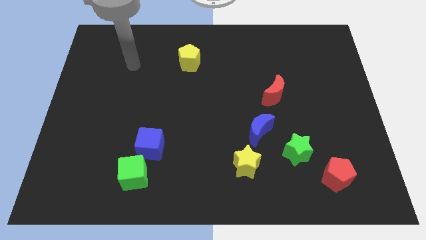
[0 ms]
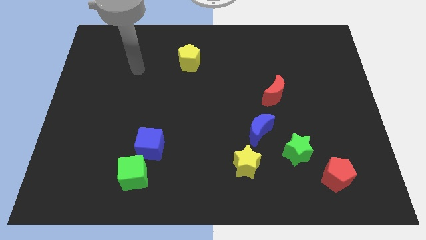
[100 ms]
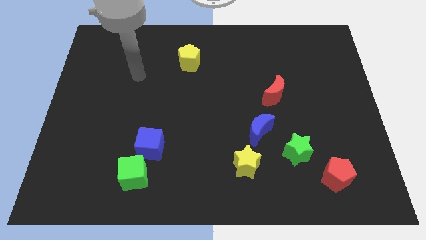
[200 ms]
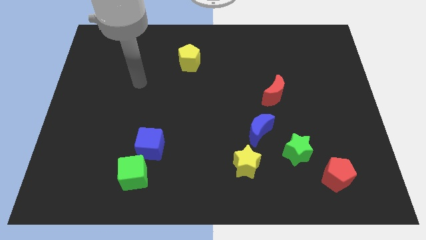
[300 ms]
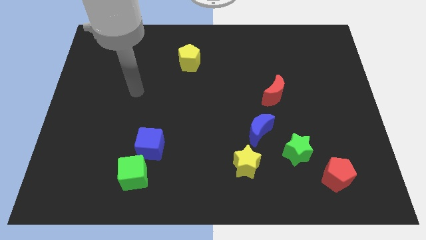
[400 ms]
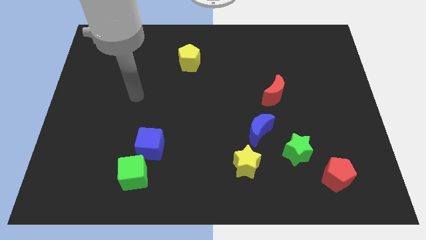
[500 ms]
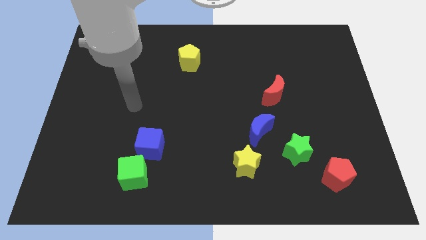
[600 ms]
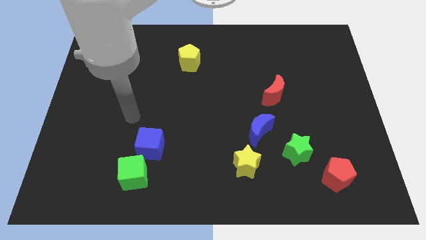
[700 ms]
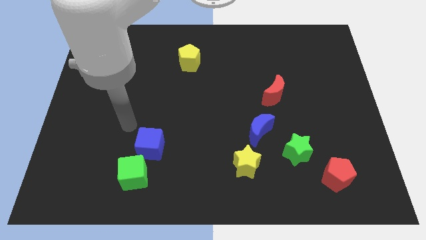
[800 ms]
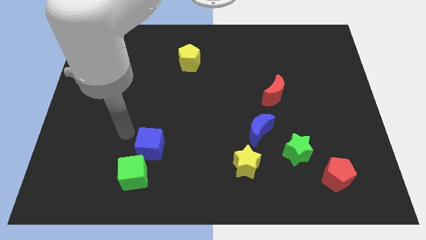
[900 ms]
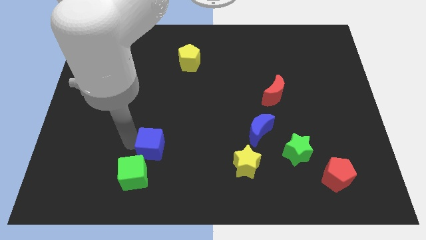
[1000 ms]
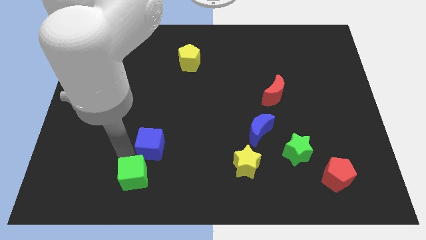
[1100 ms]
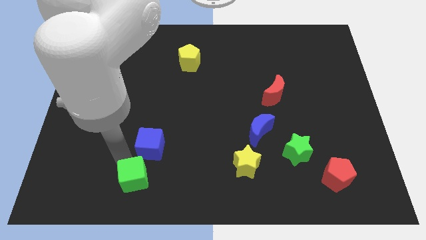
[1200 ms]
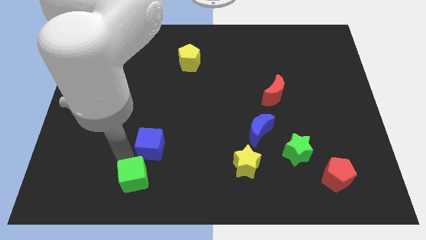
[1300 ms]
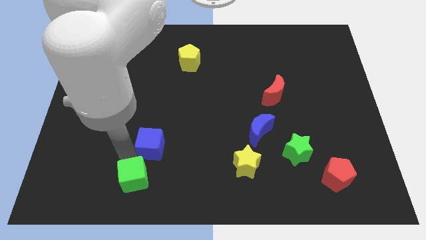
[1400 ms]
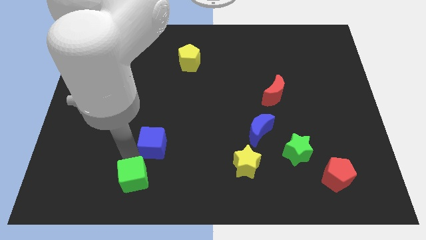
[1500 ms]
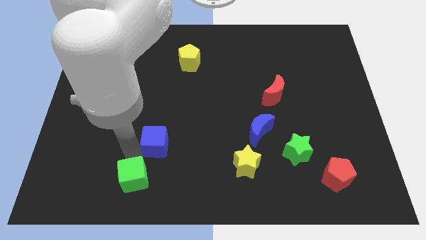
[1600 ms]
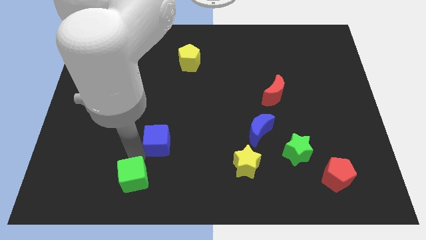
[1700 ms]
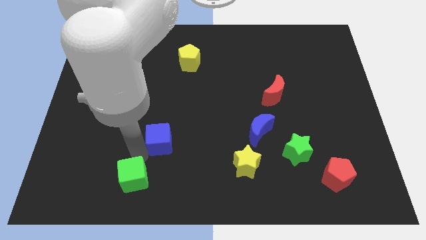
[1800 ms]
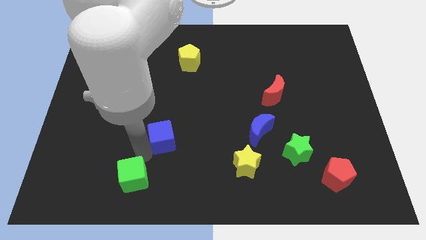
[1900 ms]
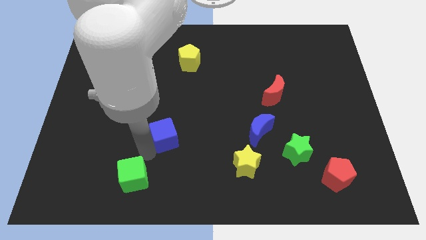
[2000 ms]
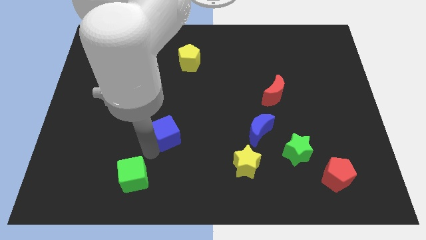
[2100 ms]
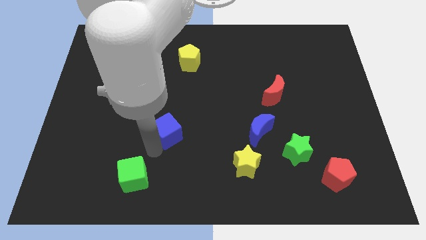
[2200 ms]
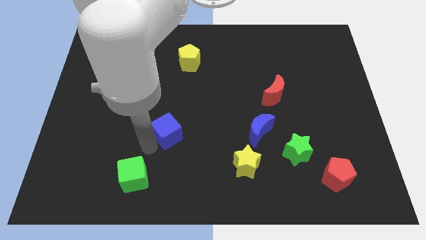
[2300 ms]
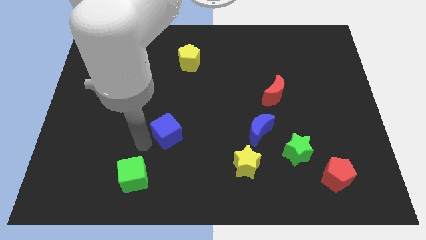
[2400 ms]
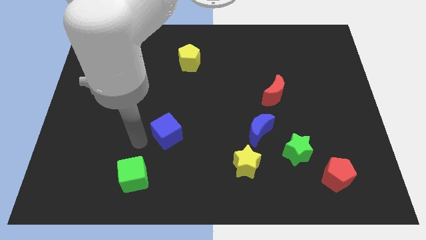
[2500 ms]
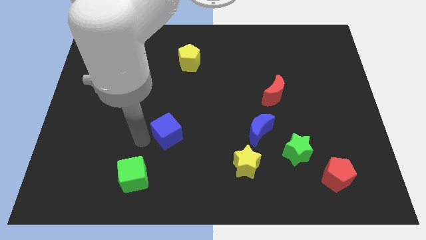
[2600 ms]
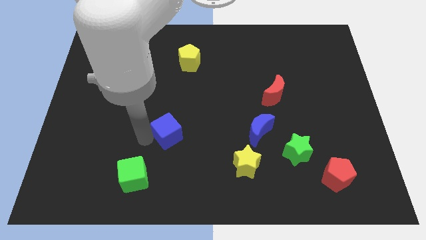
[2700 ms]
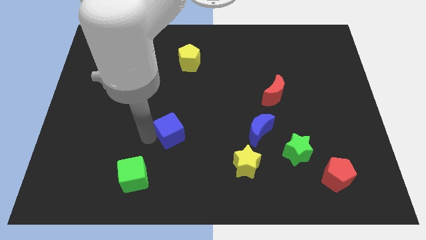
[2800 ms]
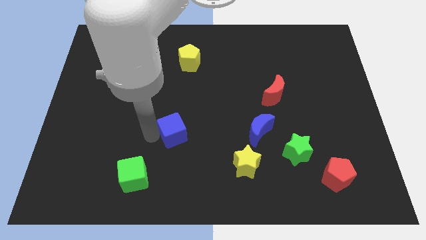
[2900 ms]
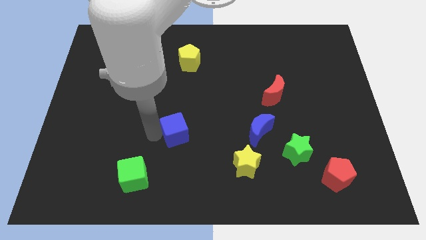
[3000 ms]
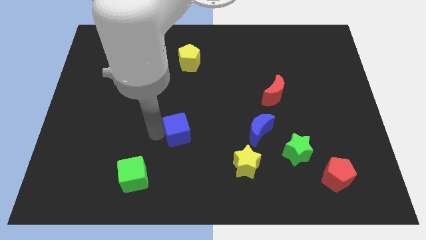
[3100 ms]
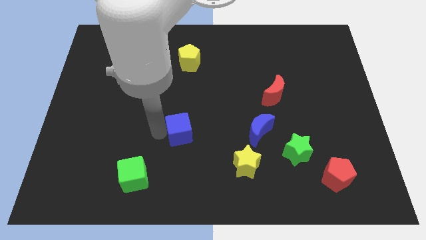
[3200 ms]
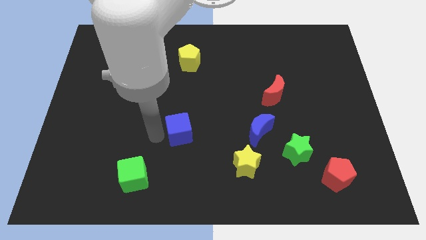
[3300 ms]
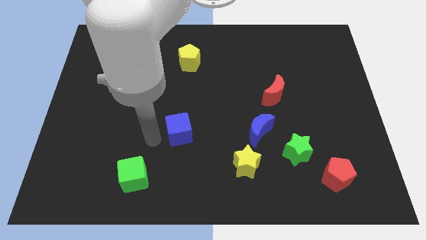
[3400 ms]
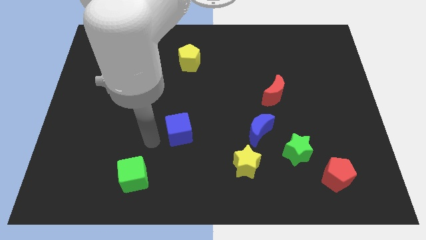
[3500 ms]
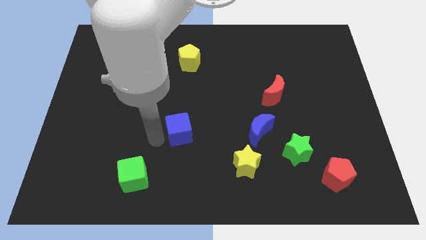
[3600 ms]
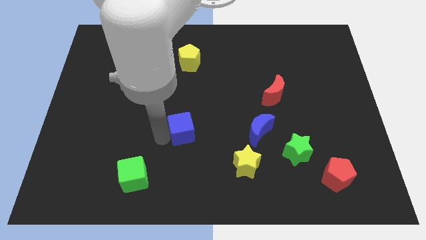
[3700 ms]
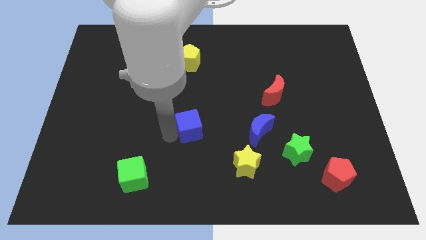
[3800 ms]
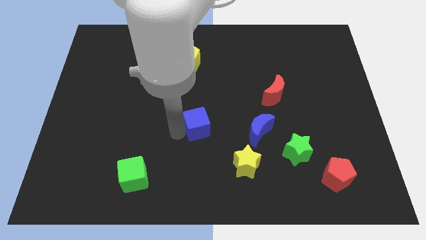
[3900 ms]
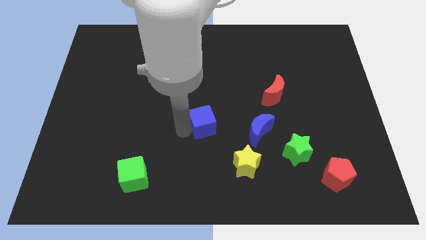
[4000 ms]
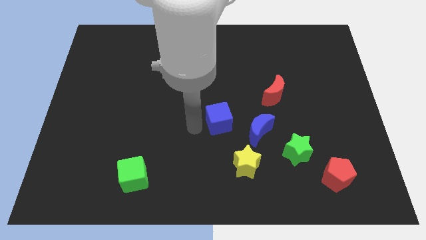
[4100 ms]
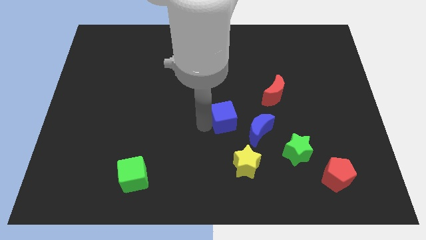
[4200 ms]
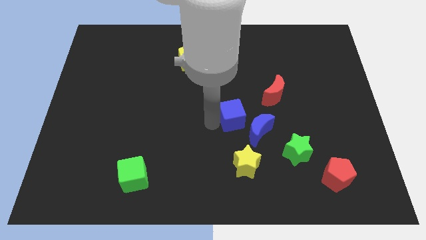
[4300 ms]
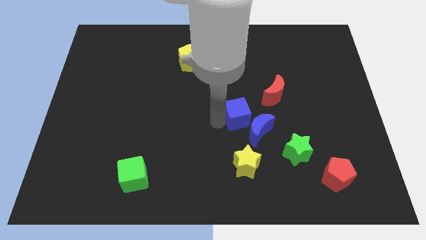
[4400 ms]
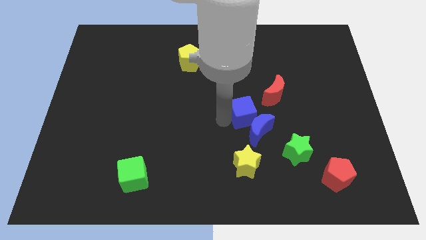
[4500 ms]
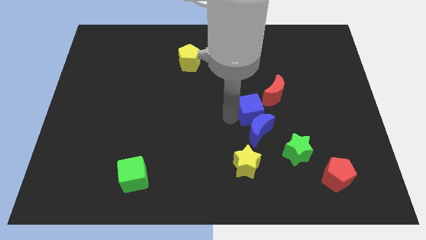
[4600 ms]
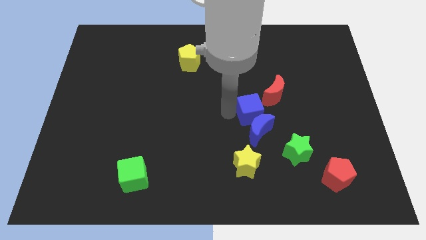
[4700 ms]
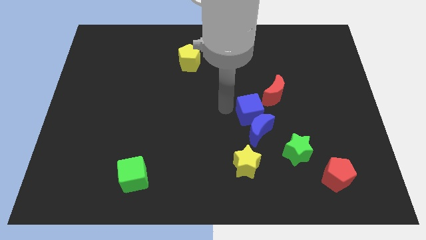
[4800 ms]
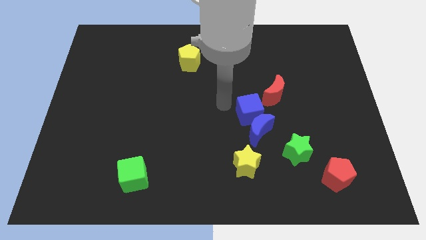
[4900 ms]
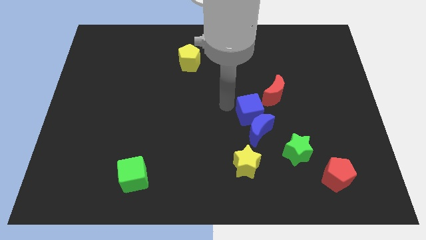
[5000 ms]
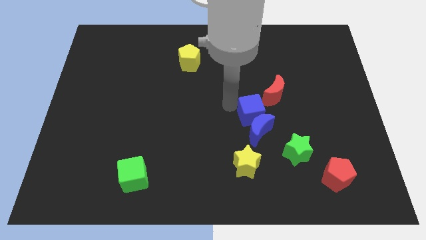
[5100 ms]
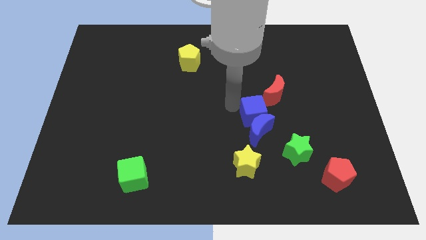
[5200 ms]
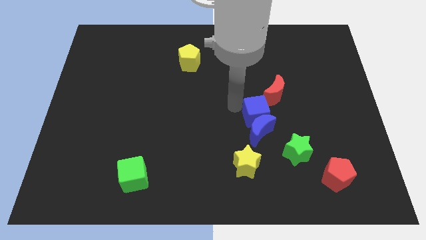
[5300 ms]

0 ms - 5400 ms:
move the blue cube to the bottom of the red moon

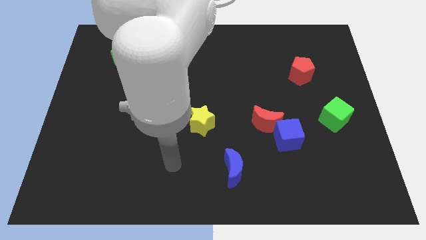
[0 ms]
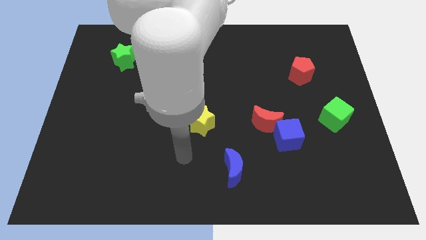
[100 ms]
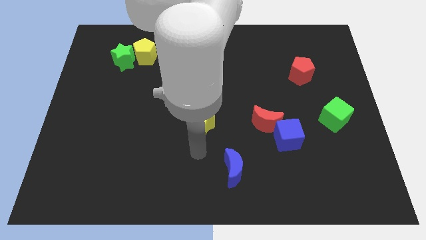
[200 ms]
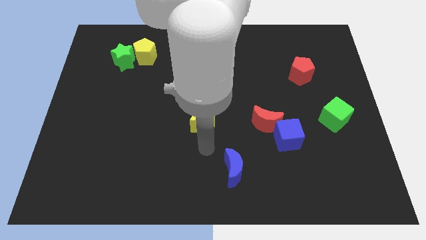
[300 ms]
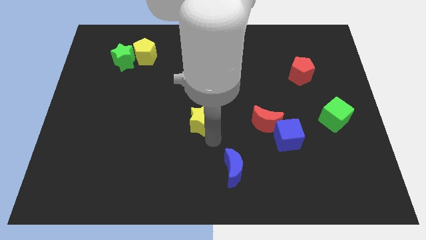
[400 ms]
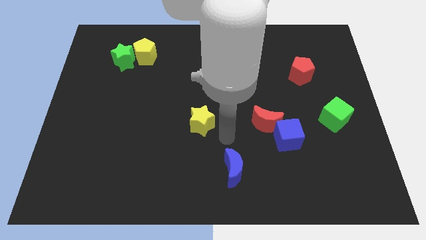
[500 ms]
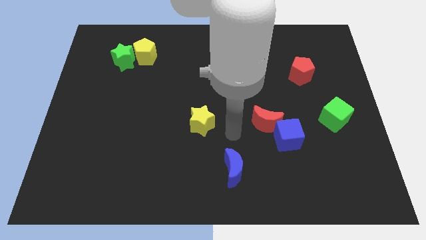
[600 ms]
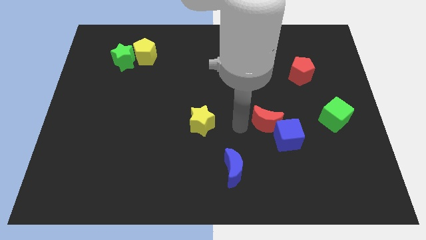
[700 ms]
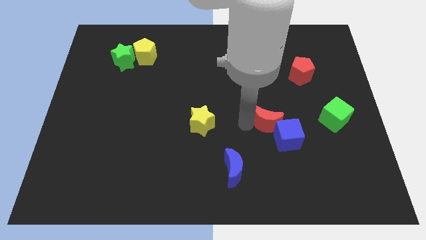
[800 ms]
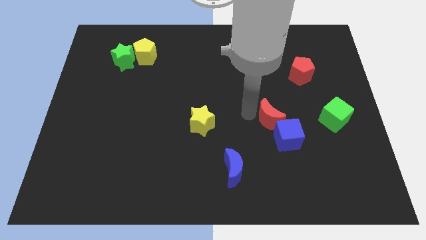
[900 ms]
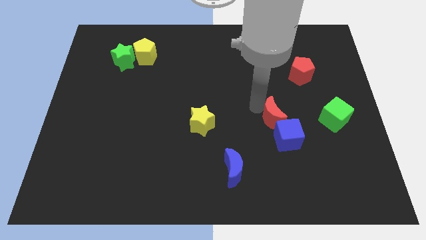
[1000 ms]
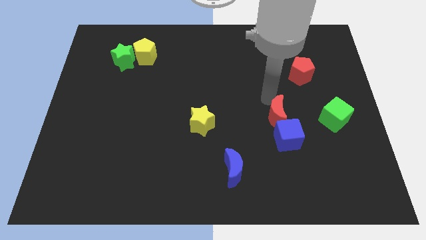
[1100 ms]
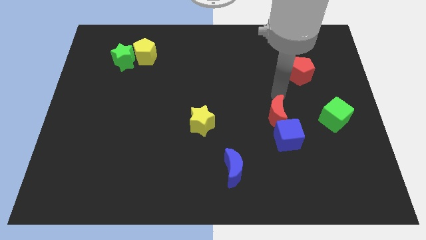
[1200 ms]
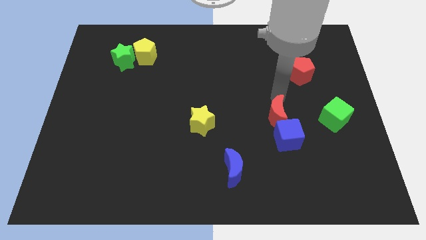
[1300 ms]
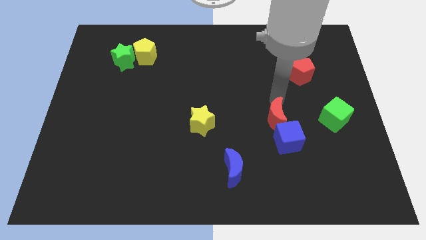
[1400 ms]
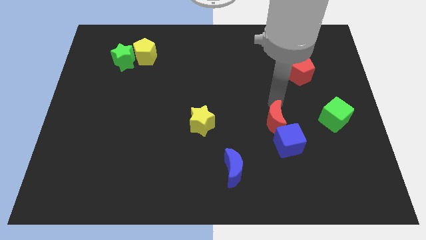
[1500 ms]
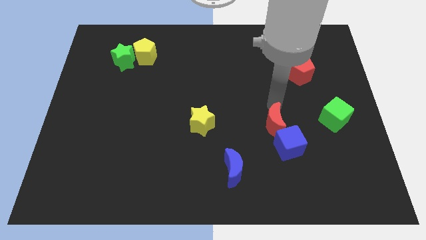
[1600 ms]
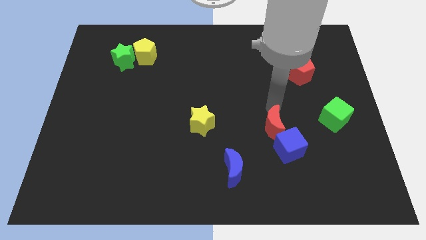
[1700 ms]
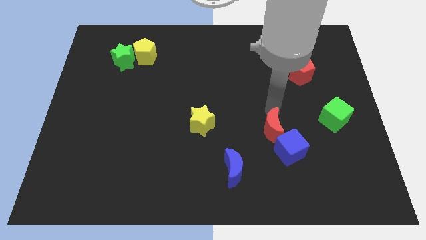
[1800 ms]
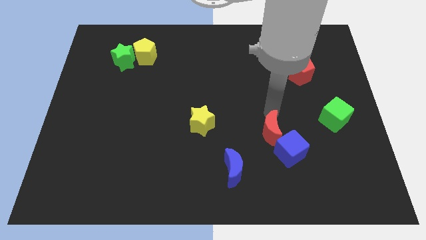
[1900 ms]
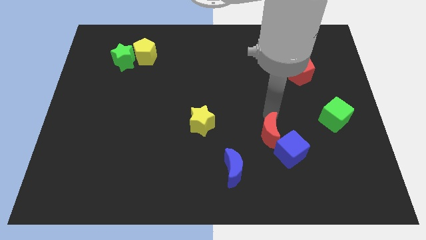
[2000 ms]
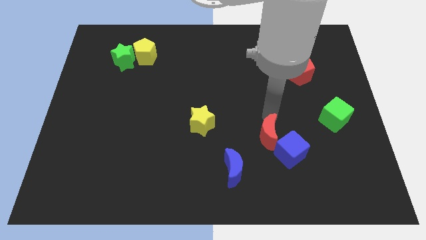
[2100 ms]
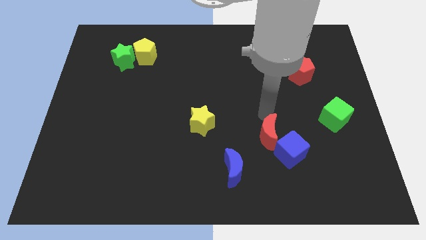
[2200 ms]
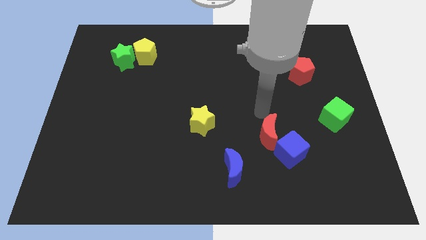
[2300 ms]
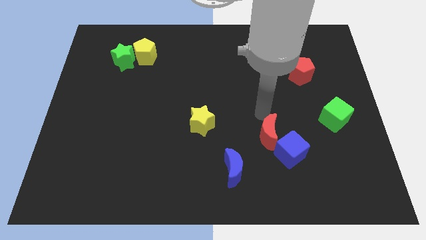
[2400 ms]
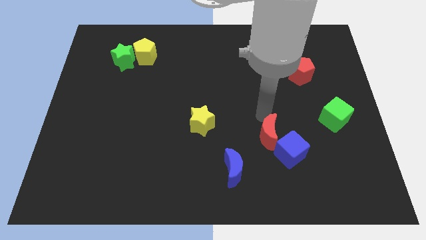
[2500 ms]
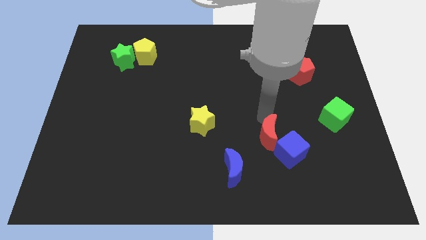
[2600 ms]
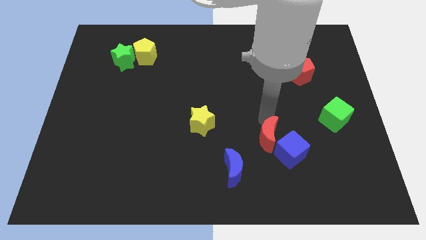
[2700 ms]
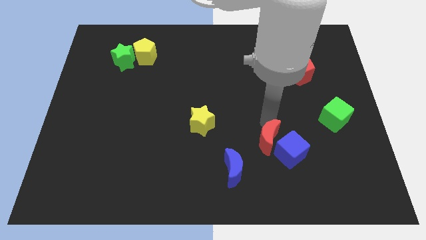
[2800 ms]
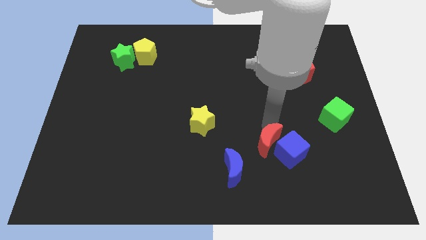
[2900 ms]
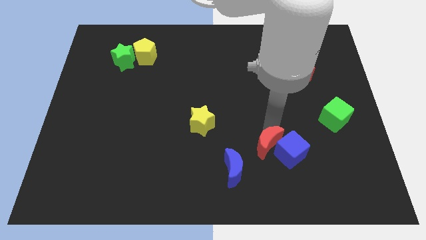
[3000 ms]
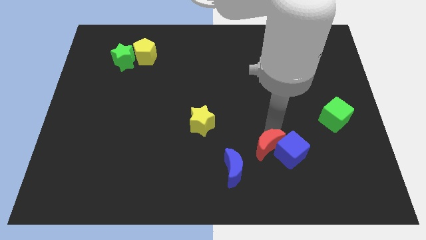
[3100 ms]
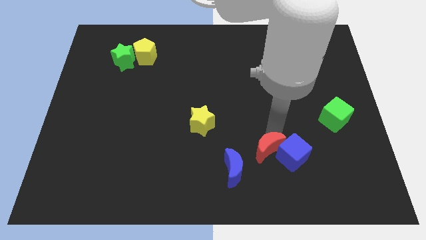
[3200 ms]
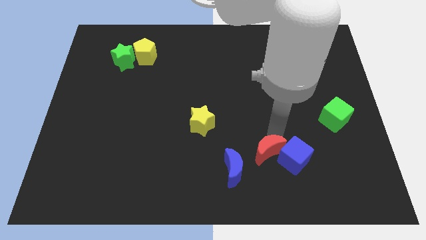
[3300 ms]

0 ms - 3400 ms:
push the red moon to the right of the blue moon
